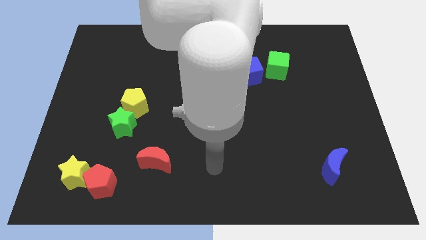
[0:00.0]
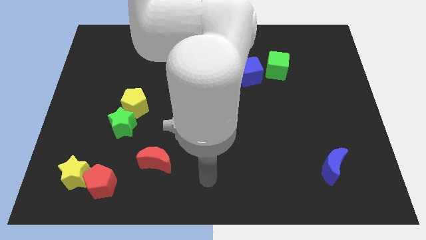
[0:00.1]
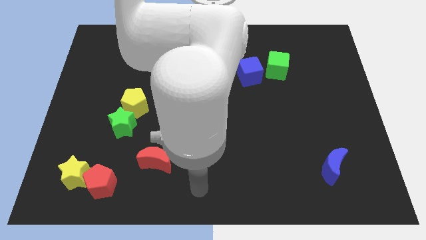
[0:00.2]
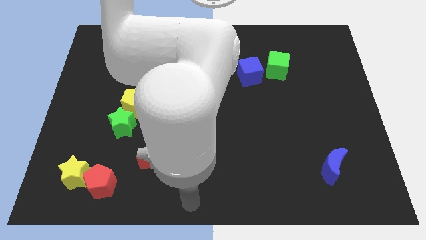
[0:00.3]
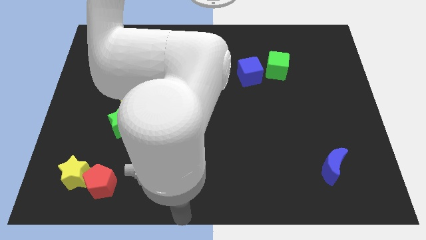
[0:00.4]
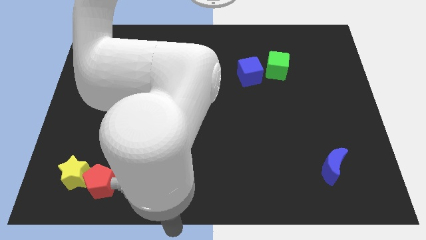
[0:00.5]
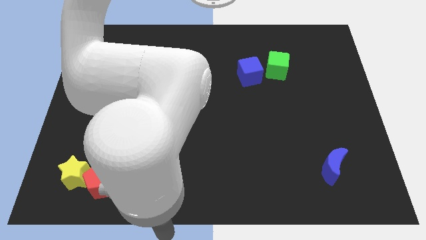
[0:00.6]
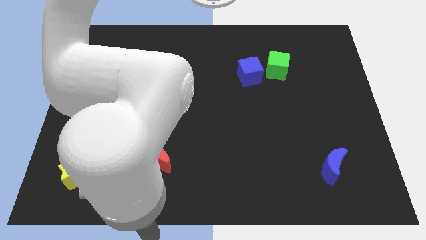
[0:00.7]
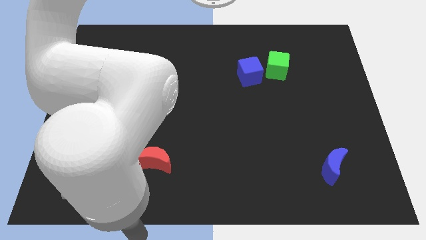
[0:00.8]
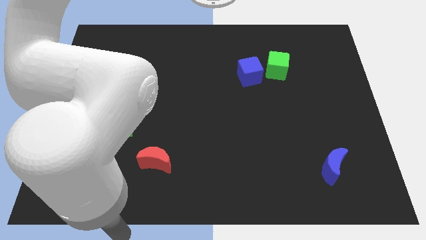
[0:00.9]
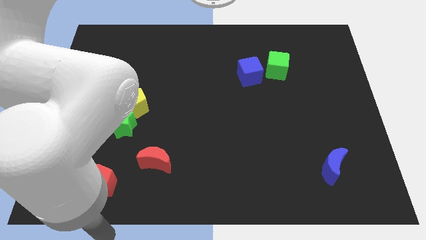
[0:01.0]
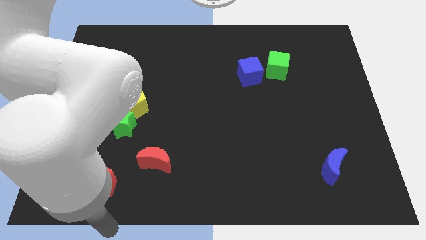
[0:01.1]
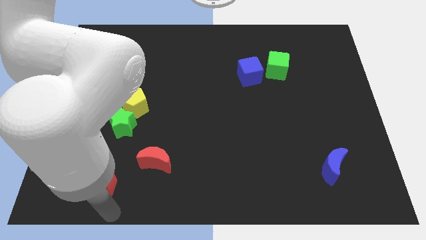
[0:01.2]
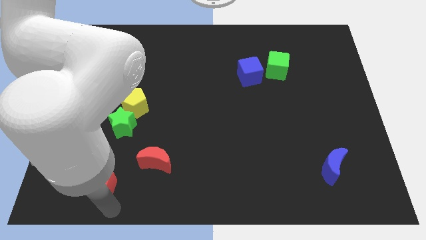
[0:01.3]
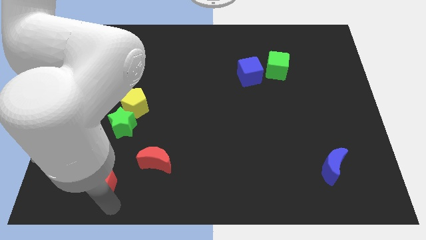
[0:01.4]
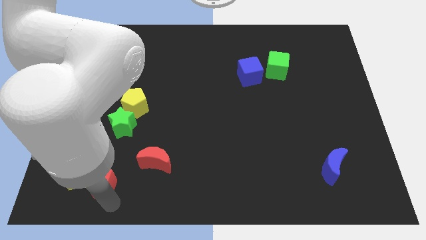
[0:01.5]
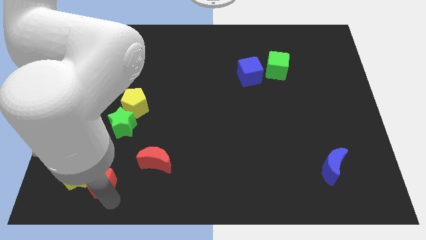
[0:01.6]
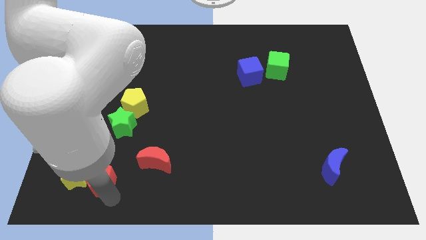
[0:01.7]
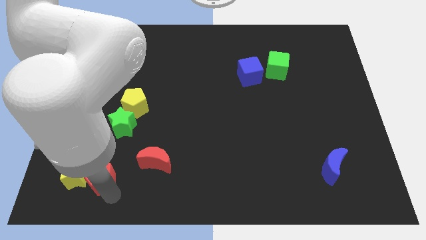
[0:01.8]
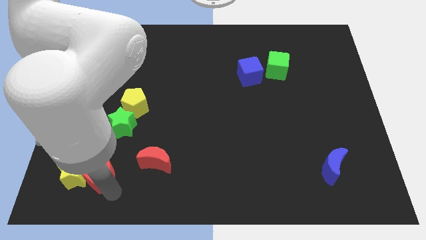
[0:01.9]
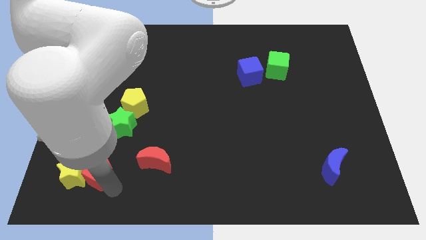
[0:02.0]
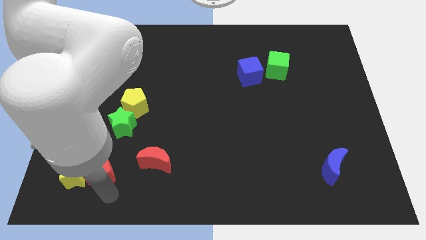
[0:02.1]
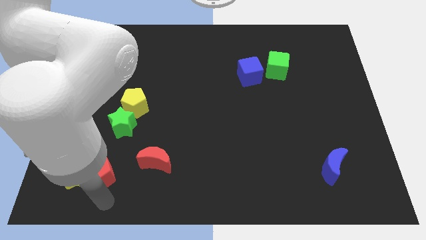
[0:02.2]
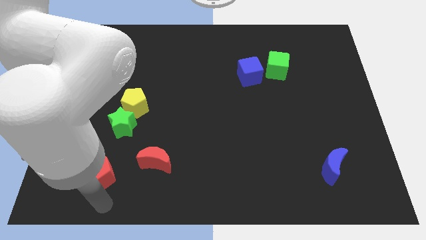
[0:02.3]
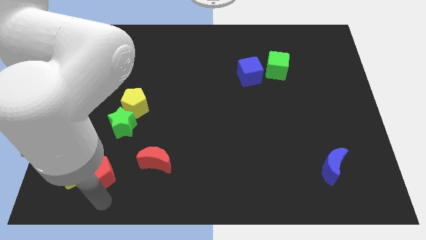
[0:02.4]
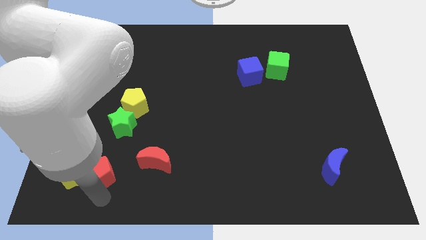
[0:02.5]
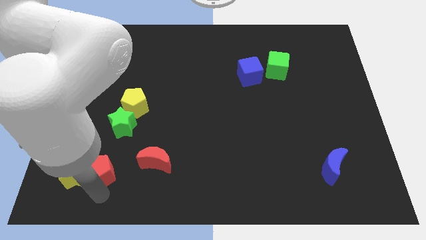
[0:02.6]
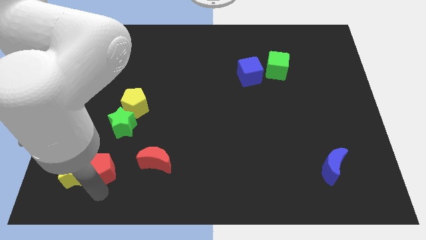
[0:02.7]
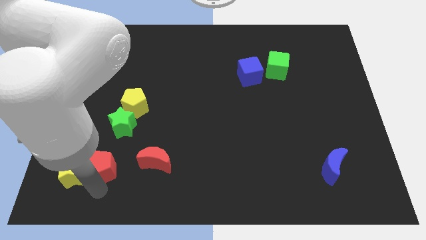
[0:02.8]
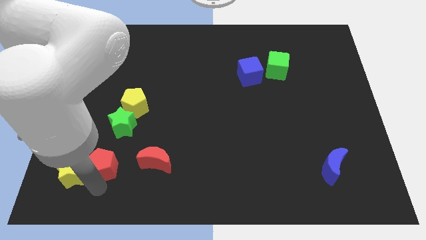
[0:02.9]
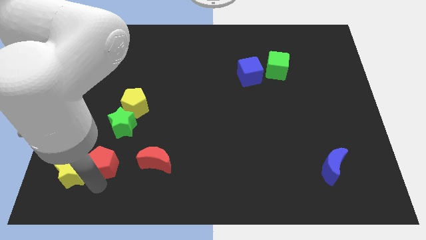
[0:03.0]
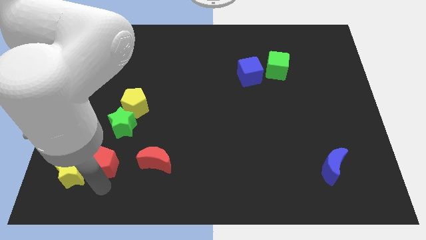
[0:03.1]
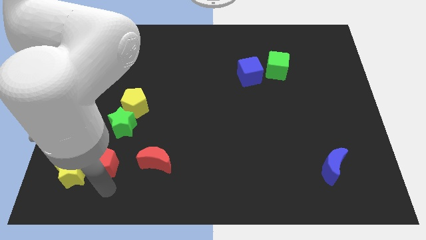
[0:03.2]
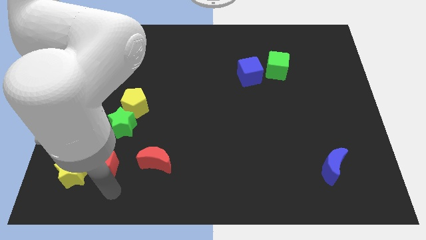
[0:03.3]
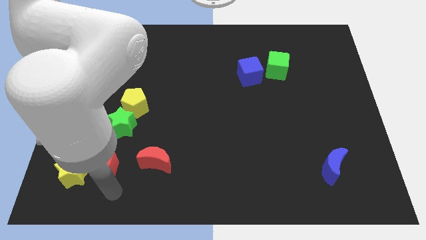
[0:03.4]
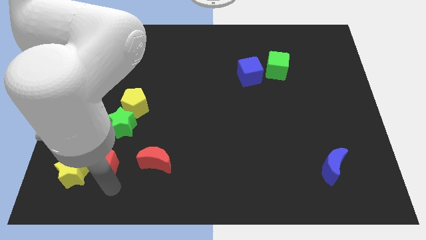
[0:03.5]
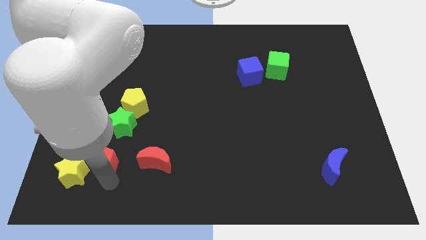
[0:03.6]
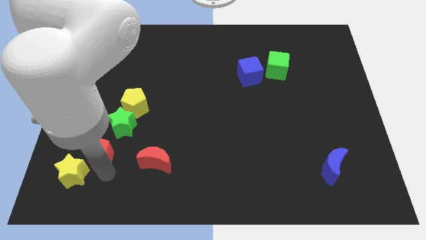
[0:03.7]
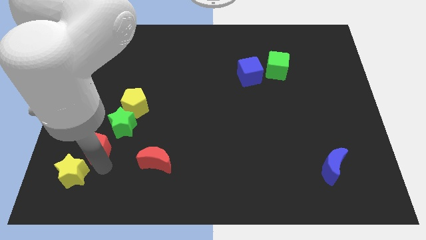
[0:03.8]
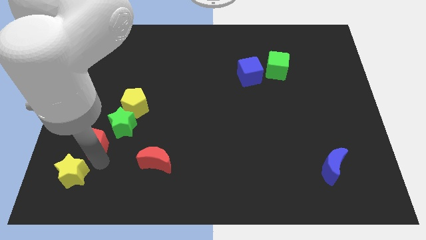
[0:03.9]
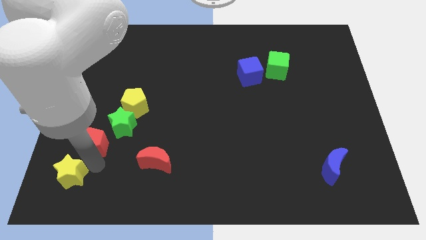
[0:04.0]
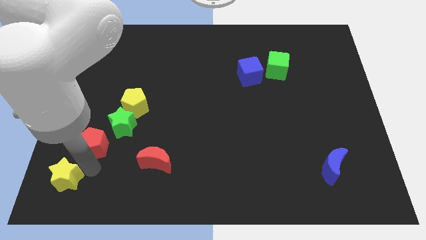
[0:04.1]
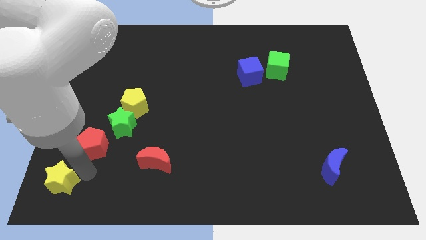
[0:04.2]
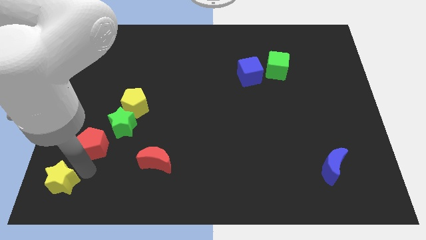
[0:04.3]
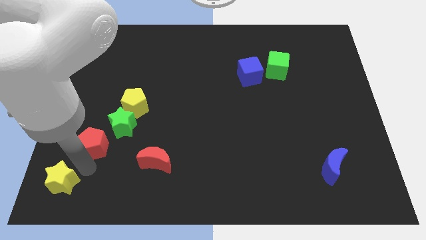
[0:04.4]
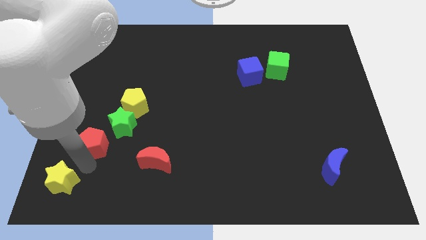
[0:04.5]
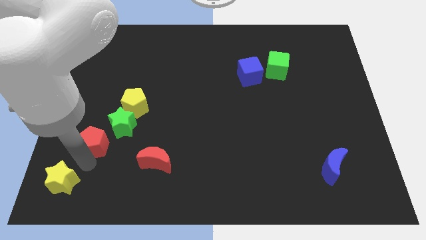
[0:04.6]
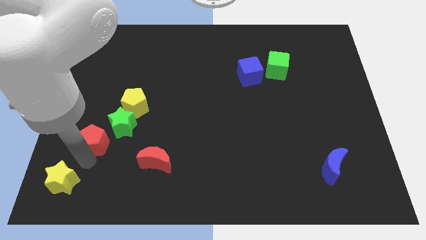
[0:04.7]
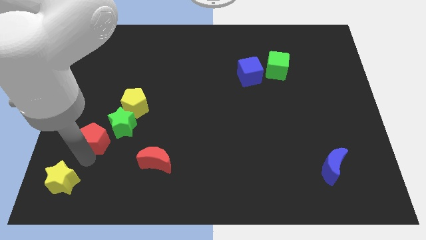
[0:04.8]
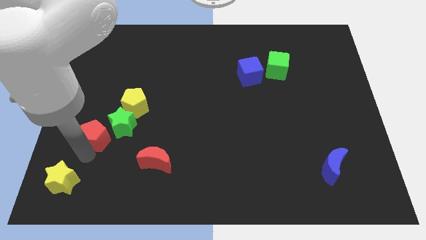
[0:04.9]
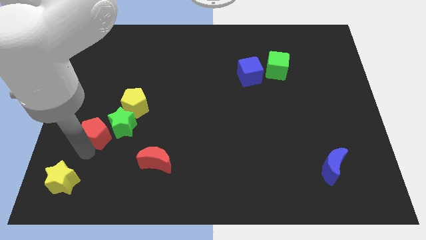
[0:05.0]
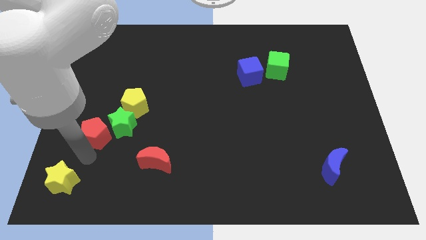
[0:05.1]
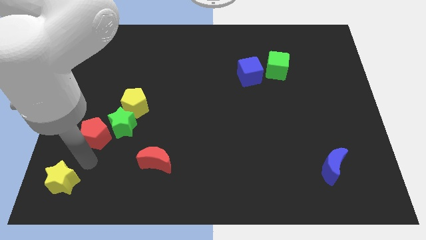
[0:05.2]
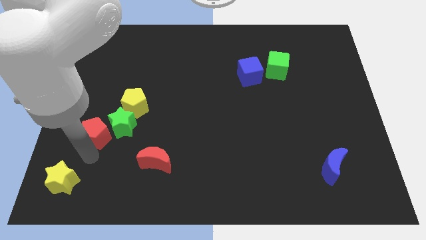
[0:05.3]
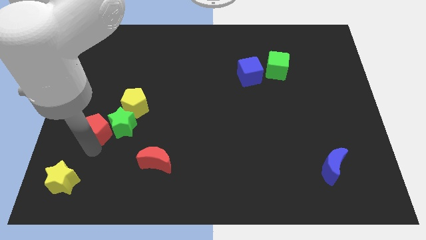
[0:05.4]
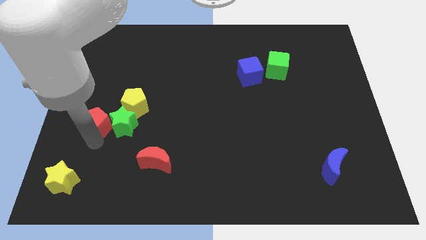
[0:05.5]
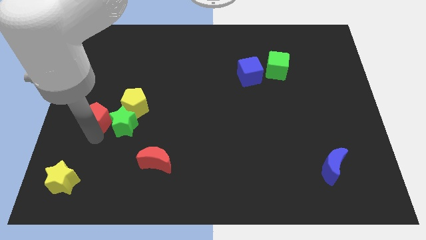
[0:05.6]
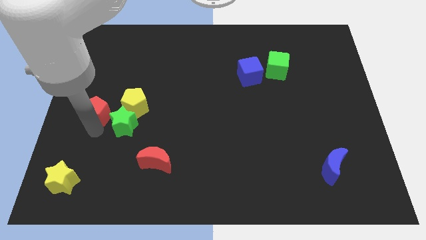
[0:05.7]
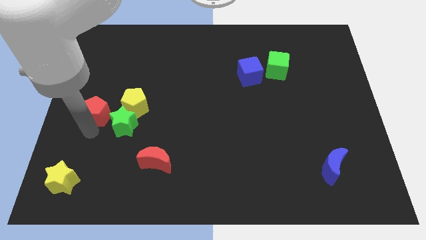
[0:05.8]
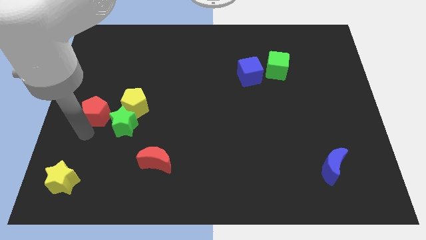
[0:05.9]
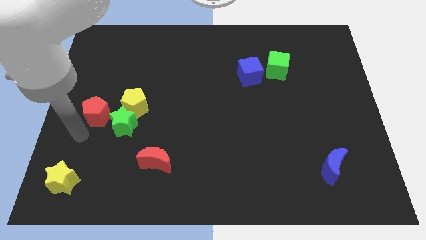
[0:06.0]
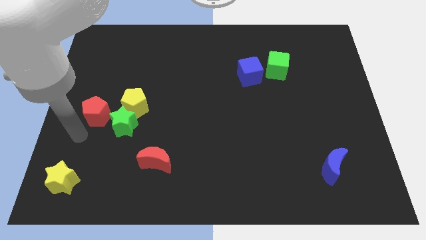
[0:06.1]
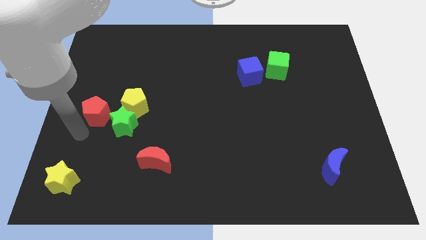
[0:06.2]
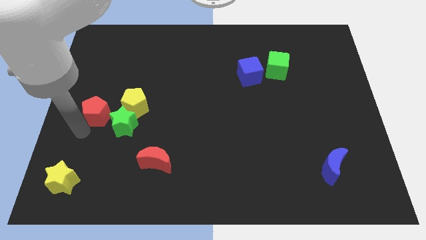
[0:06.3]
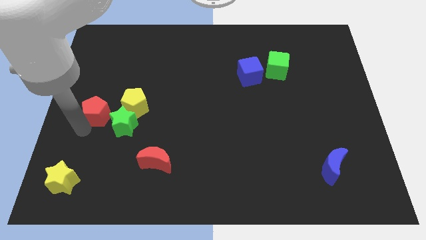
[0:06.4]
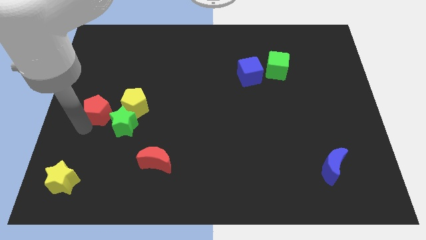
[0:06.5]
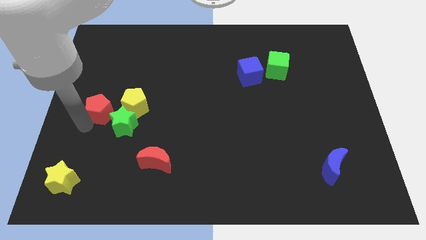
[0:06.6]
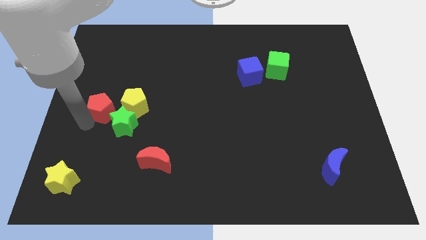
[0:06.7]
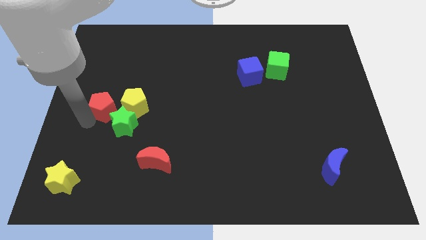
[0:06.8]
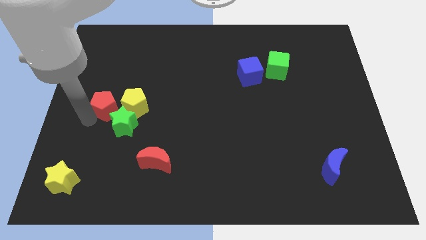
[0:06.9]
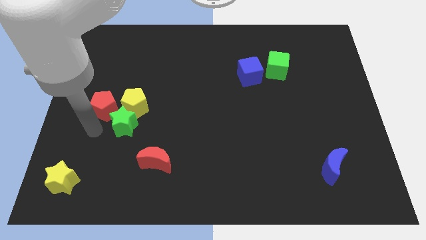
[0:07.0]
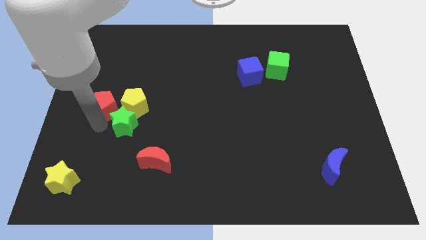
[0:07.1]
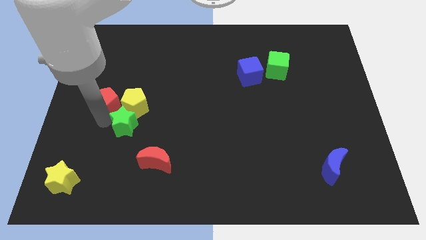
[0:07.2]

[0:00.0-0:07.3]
move the red pentagon upwards

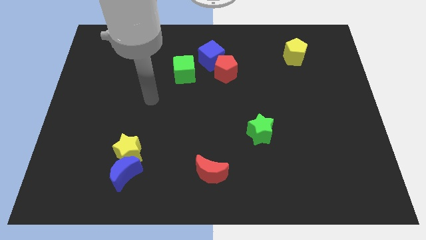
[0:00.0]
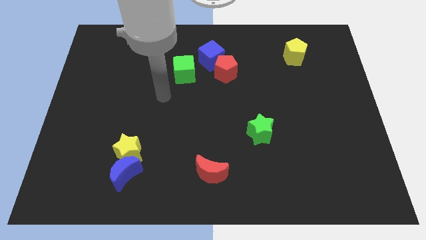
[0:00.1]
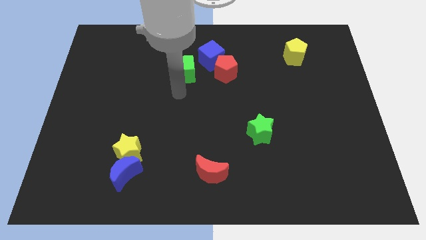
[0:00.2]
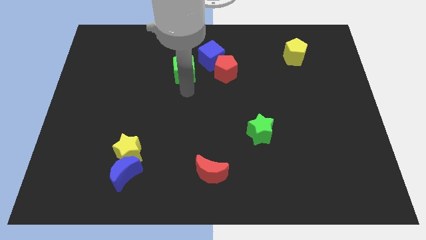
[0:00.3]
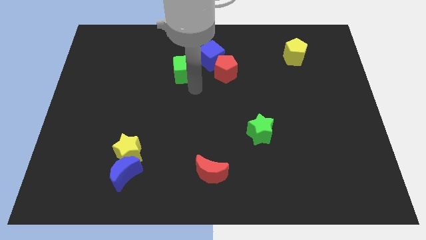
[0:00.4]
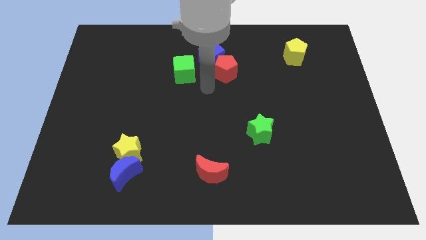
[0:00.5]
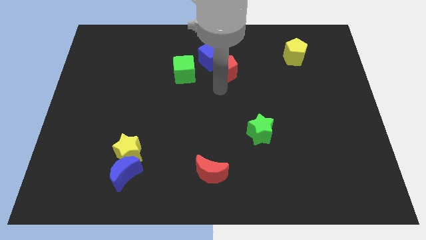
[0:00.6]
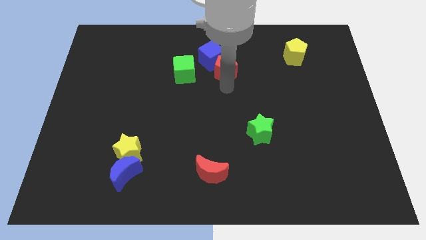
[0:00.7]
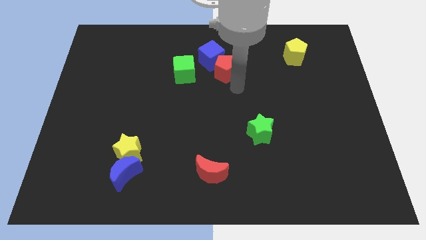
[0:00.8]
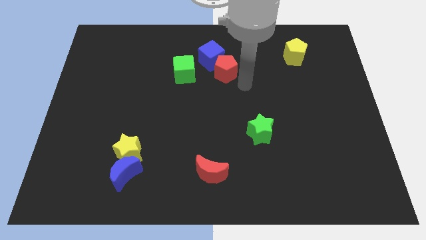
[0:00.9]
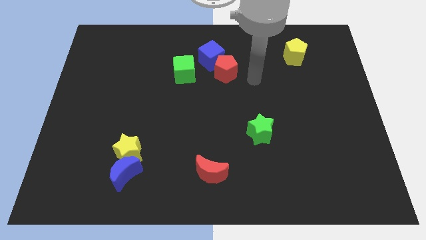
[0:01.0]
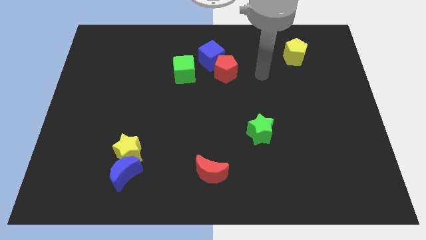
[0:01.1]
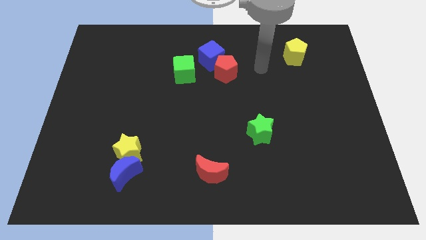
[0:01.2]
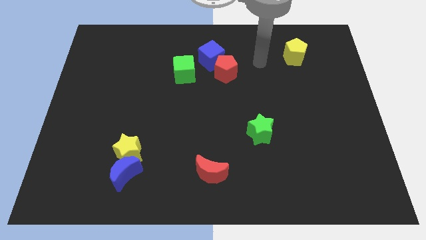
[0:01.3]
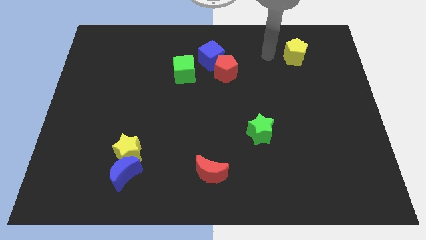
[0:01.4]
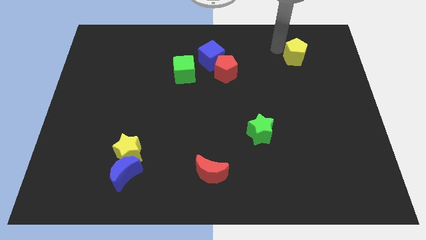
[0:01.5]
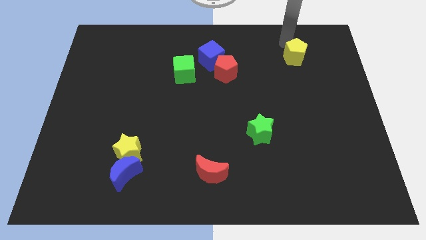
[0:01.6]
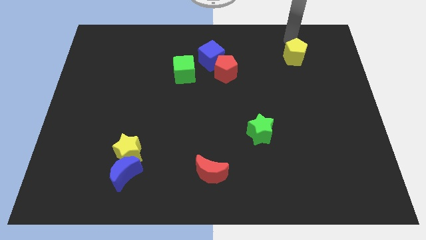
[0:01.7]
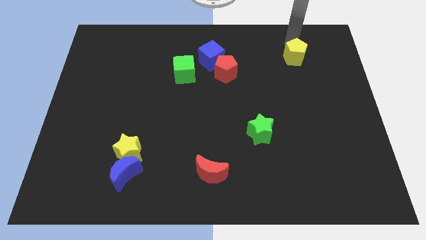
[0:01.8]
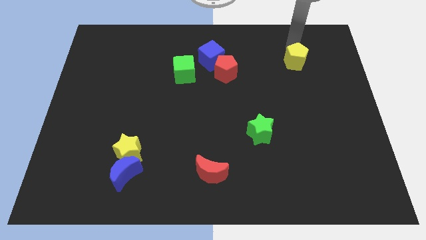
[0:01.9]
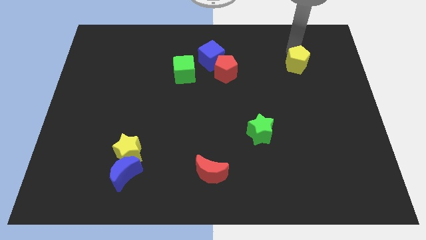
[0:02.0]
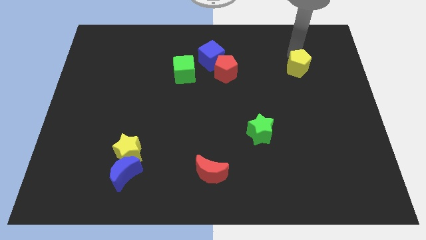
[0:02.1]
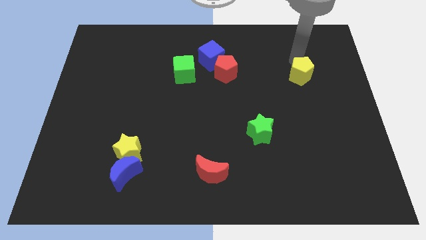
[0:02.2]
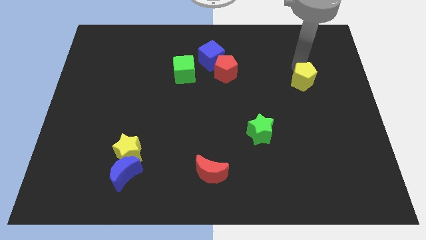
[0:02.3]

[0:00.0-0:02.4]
move the yellow pentagon downwards slightly
